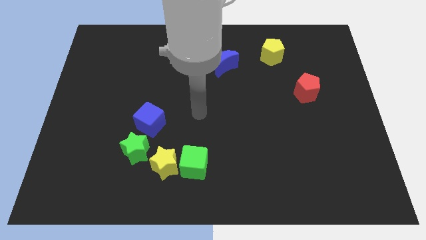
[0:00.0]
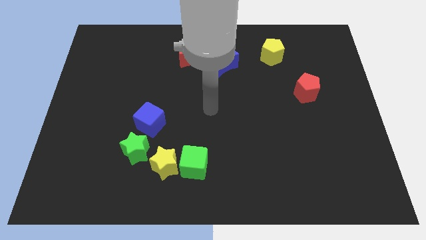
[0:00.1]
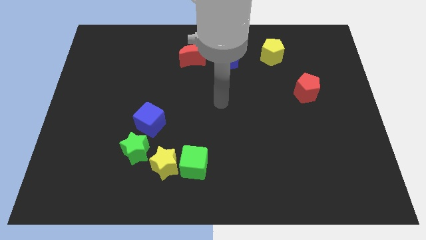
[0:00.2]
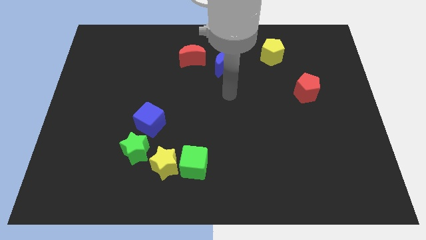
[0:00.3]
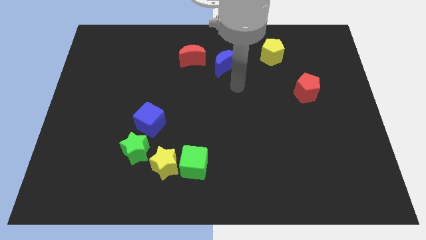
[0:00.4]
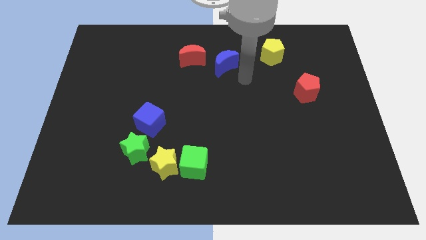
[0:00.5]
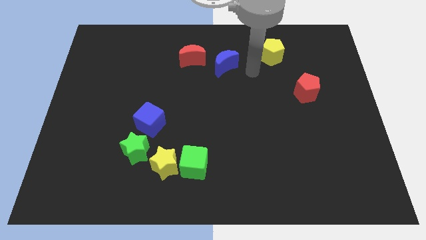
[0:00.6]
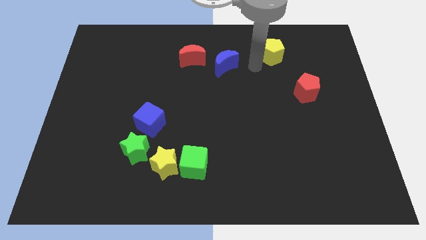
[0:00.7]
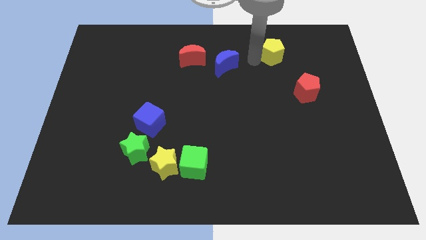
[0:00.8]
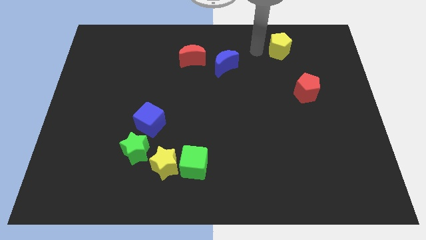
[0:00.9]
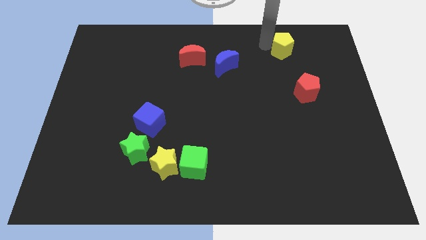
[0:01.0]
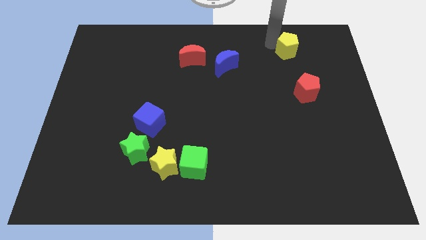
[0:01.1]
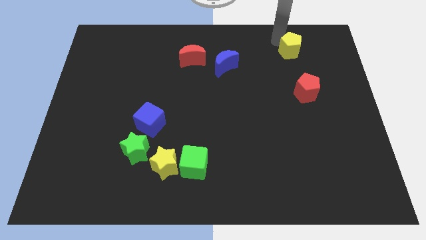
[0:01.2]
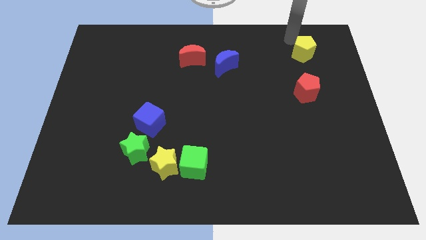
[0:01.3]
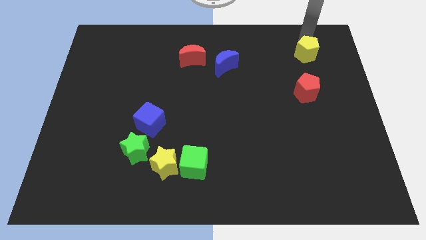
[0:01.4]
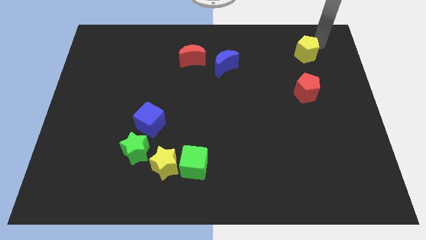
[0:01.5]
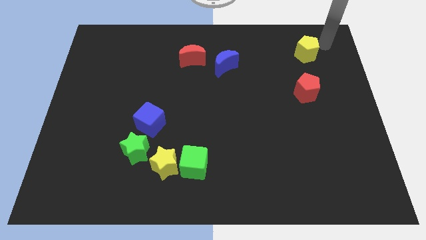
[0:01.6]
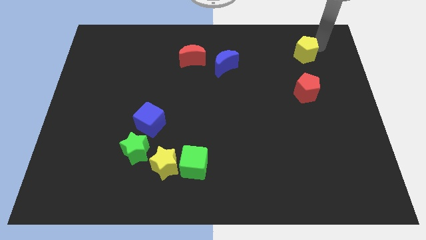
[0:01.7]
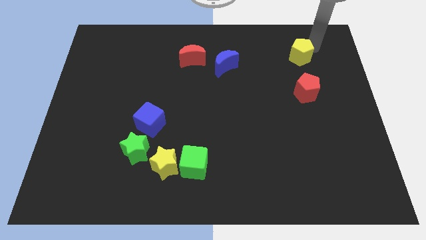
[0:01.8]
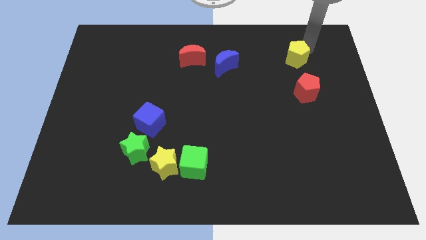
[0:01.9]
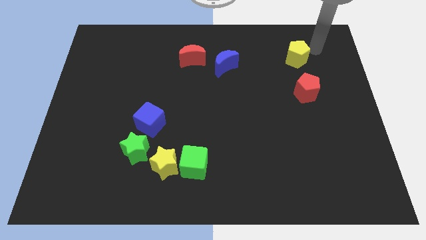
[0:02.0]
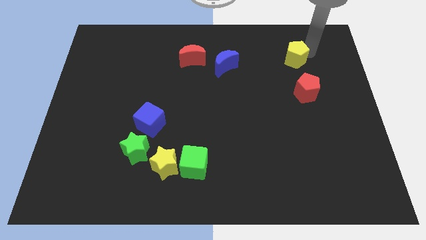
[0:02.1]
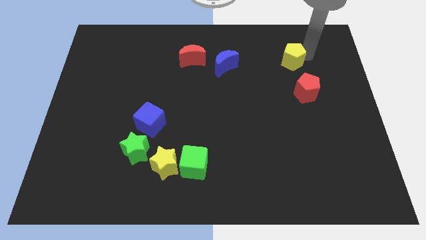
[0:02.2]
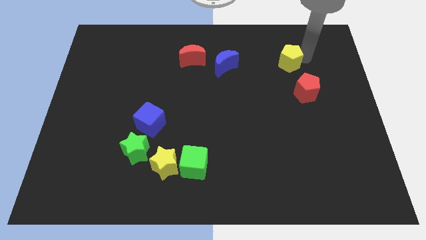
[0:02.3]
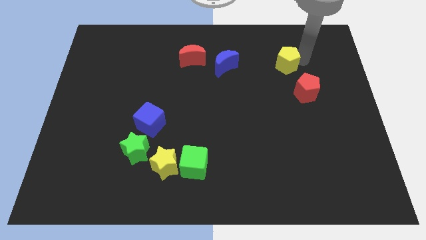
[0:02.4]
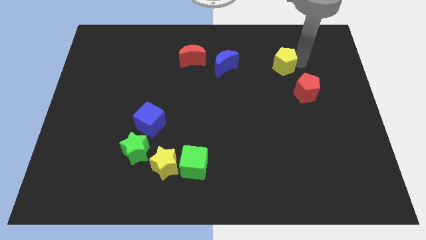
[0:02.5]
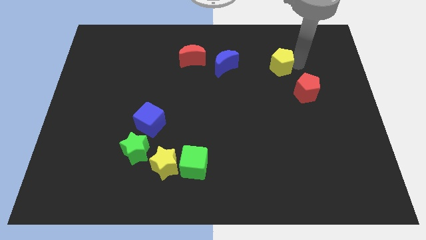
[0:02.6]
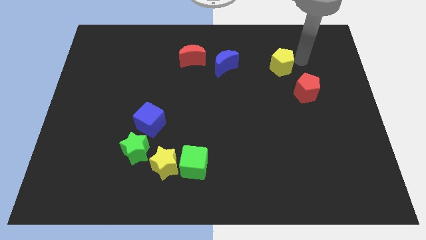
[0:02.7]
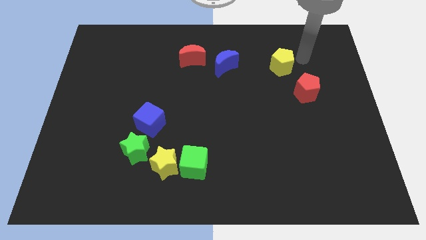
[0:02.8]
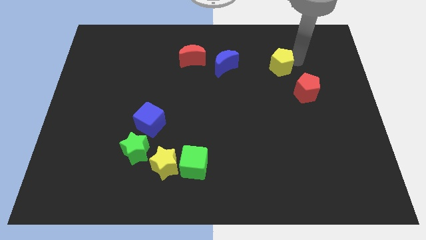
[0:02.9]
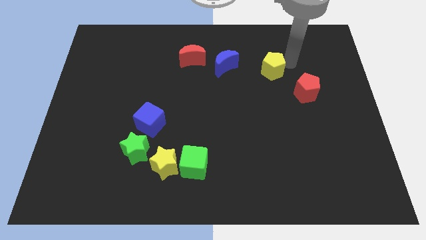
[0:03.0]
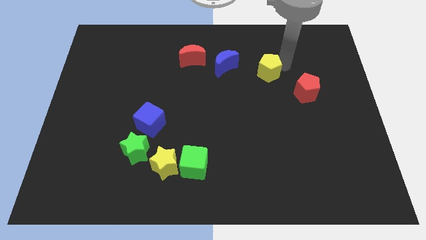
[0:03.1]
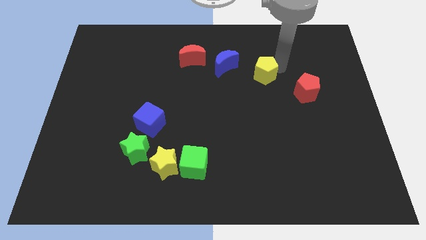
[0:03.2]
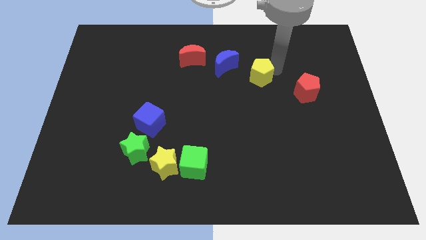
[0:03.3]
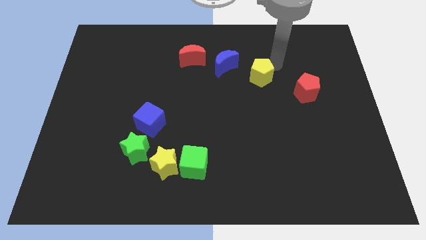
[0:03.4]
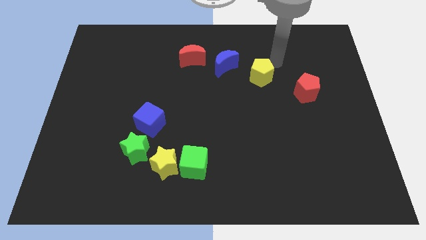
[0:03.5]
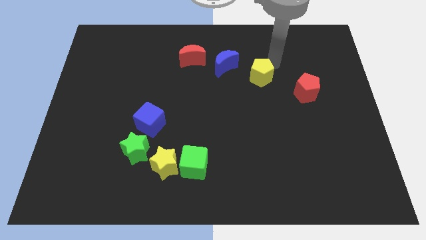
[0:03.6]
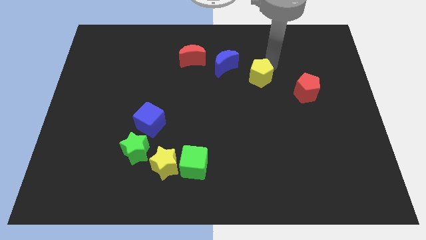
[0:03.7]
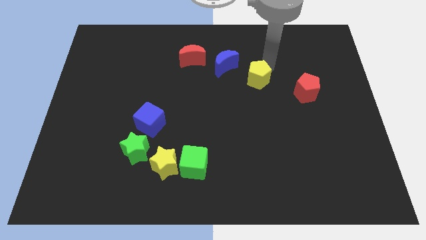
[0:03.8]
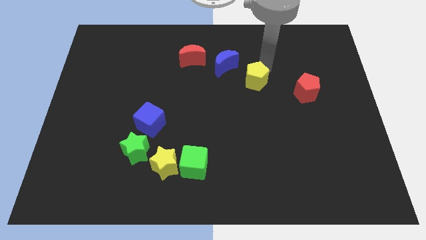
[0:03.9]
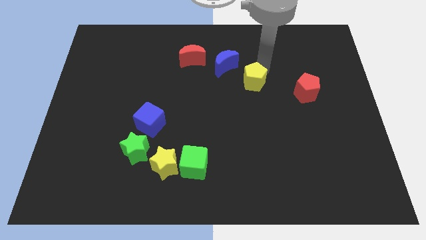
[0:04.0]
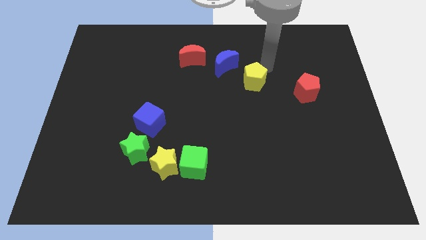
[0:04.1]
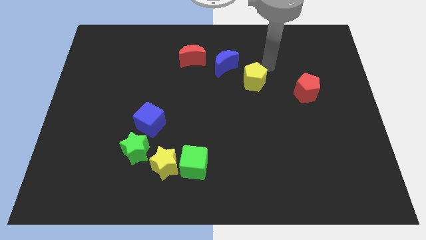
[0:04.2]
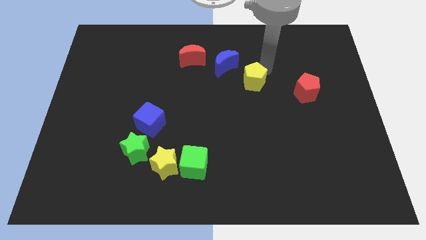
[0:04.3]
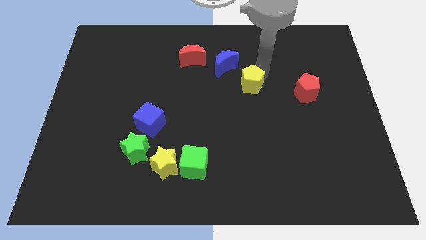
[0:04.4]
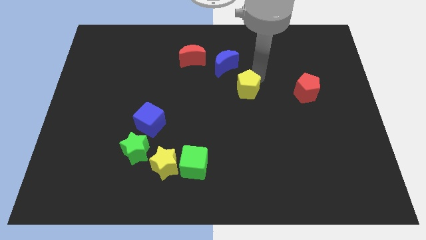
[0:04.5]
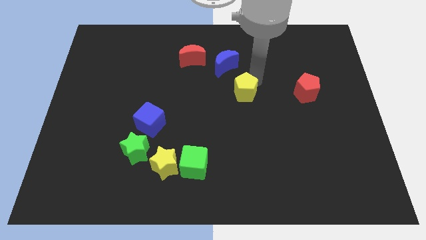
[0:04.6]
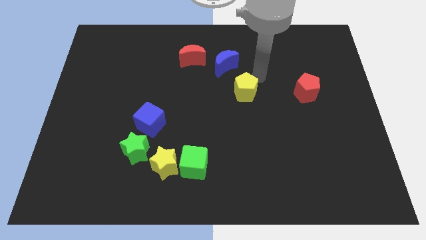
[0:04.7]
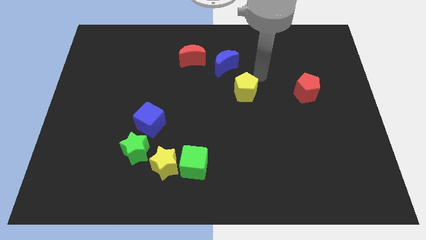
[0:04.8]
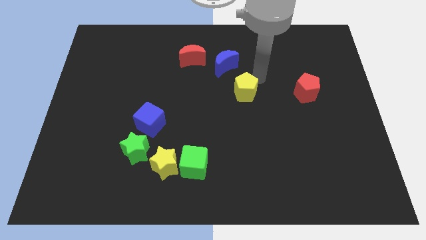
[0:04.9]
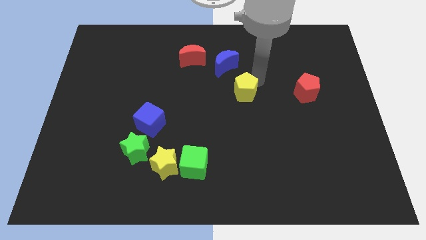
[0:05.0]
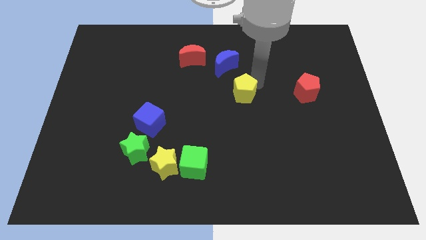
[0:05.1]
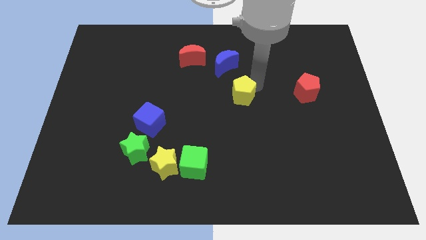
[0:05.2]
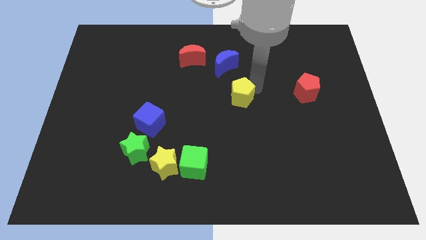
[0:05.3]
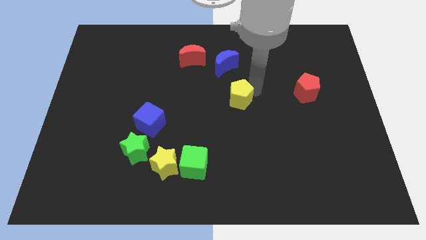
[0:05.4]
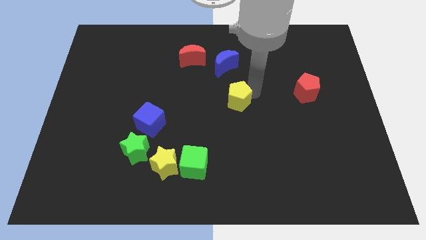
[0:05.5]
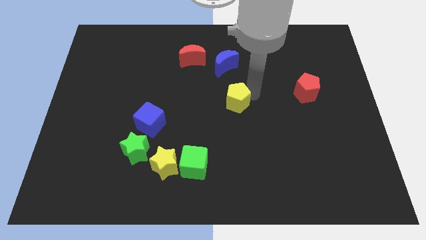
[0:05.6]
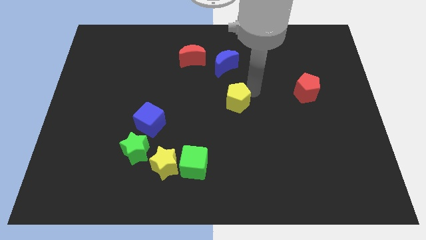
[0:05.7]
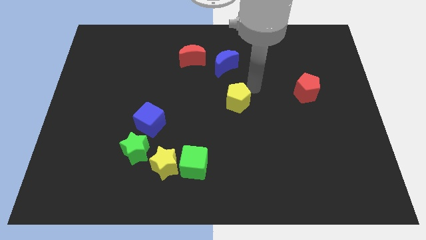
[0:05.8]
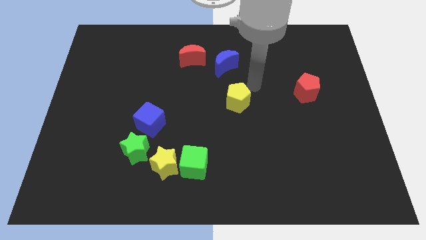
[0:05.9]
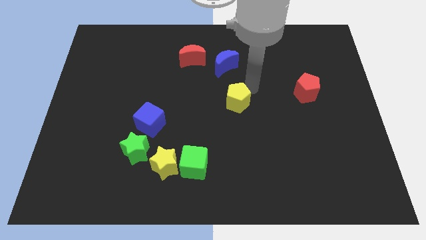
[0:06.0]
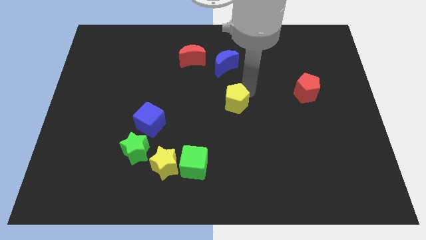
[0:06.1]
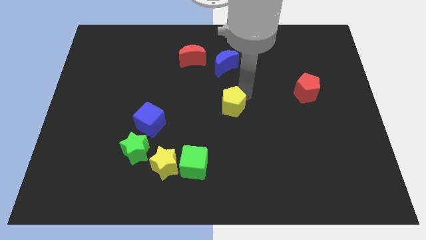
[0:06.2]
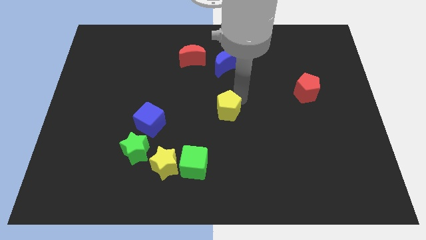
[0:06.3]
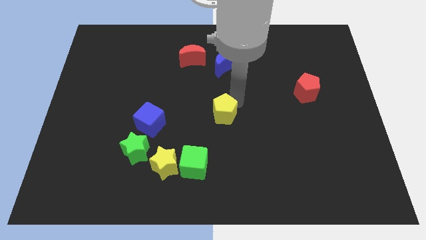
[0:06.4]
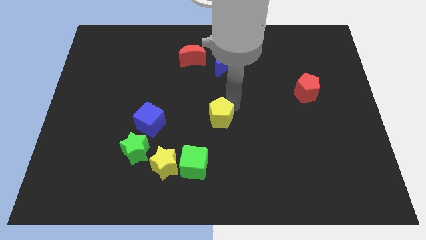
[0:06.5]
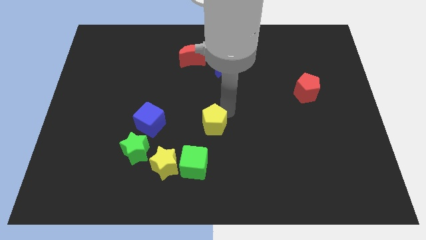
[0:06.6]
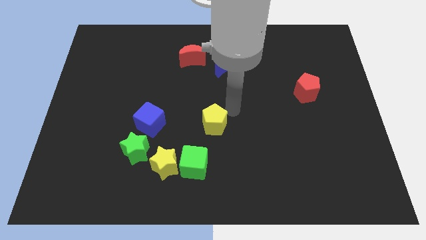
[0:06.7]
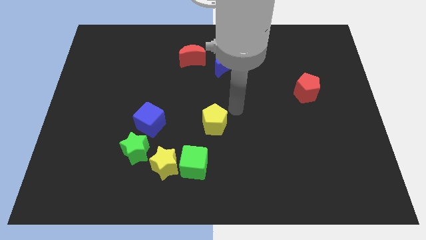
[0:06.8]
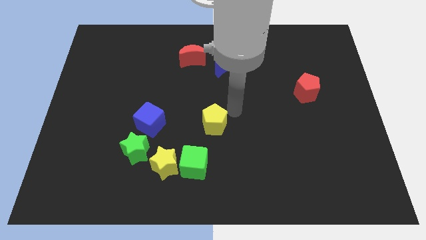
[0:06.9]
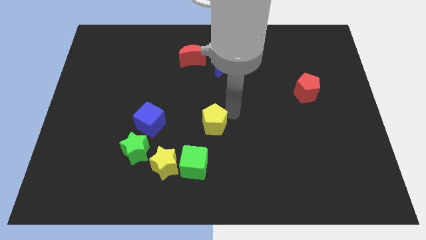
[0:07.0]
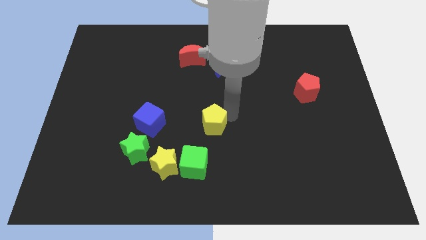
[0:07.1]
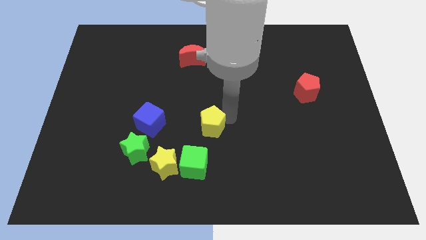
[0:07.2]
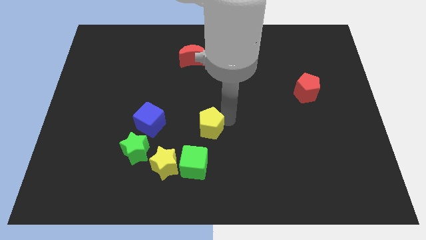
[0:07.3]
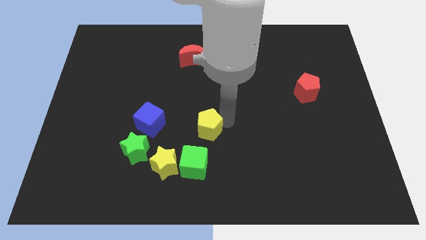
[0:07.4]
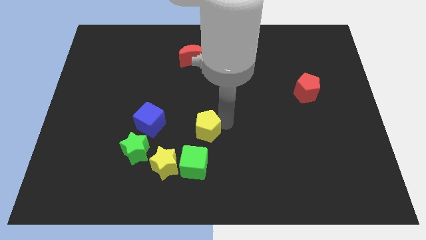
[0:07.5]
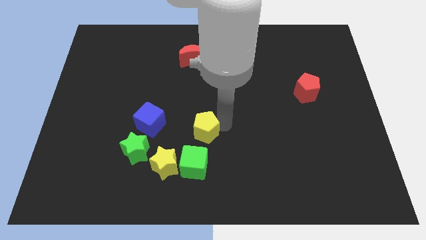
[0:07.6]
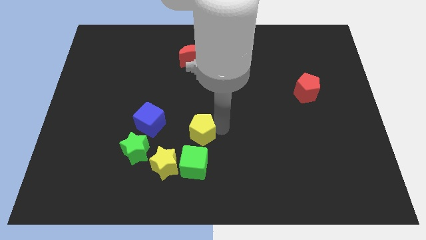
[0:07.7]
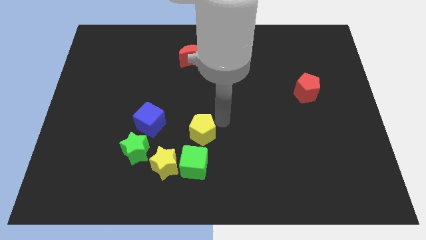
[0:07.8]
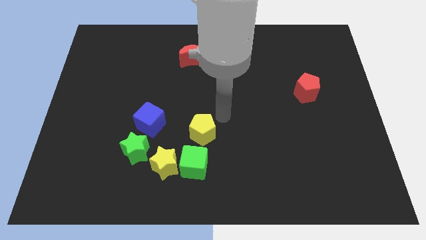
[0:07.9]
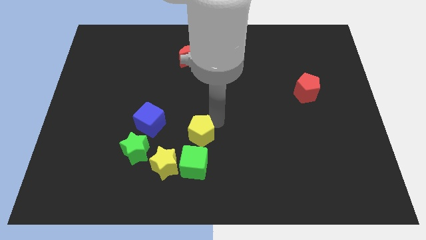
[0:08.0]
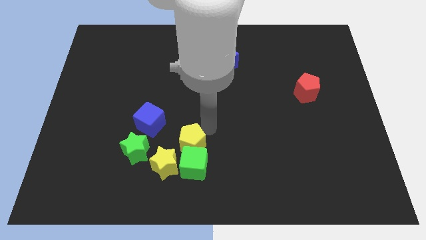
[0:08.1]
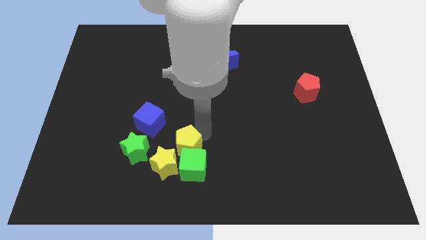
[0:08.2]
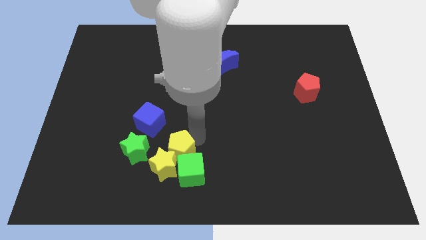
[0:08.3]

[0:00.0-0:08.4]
push the yellow pentagon towards the yellow star
